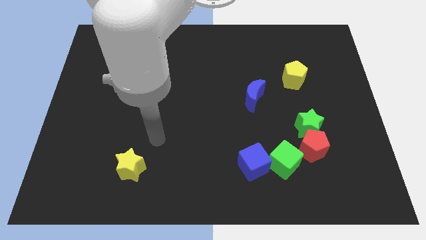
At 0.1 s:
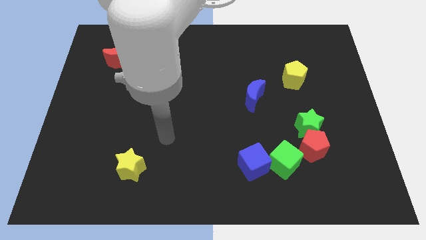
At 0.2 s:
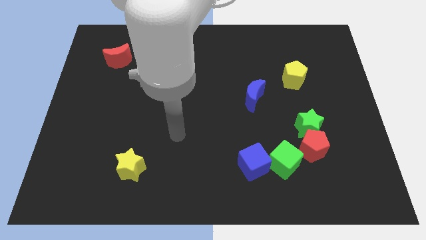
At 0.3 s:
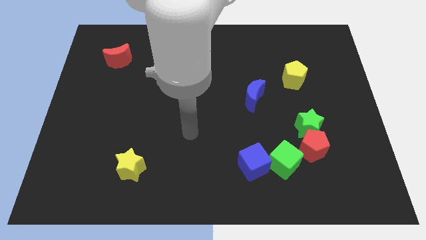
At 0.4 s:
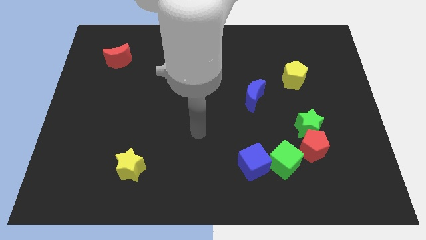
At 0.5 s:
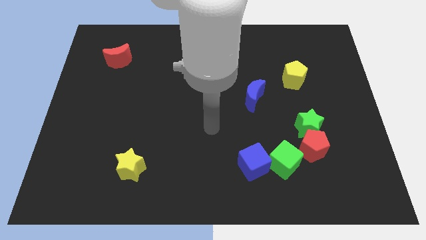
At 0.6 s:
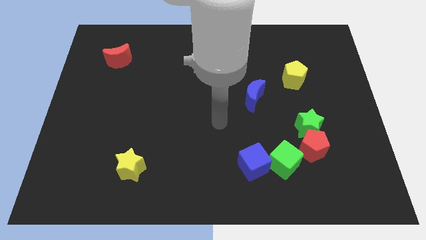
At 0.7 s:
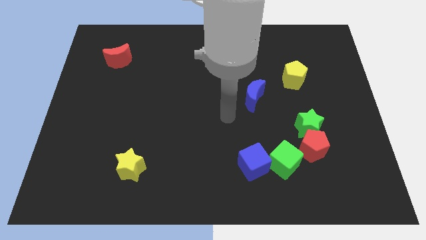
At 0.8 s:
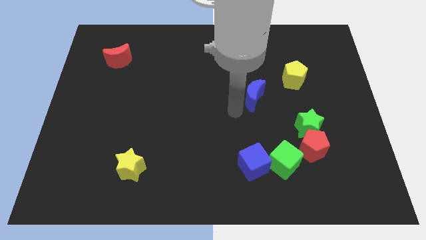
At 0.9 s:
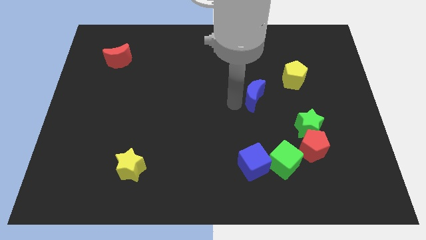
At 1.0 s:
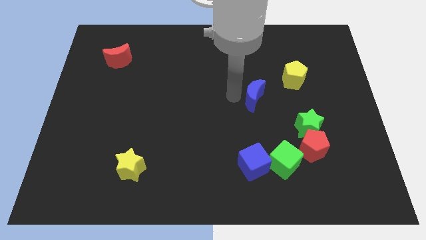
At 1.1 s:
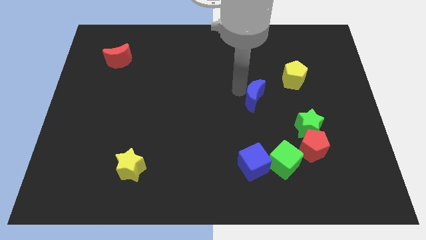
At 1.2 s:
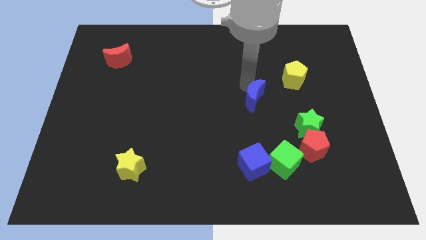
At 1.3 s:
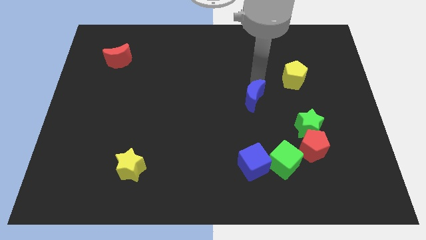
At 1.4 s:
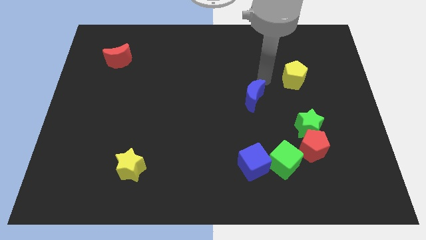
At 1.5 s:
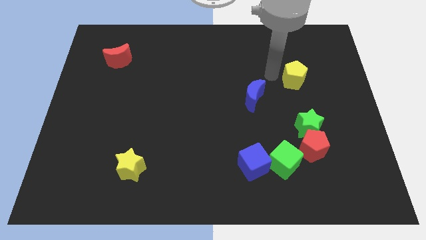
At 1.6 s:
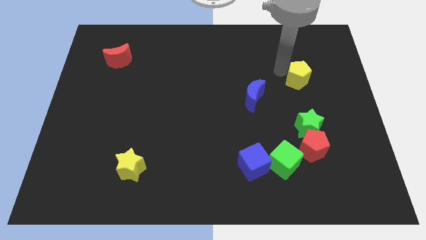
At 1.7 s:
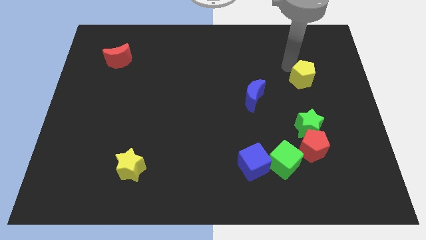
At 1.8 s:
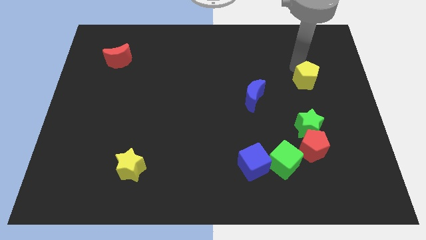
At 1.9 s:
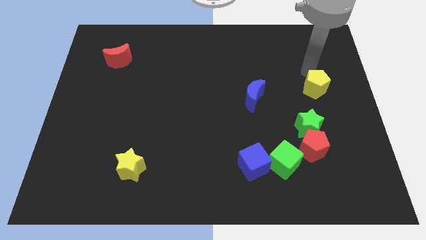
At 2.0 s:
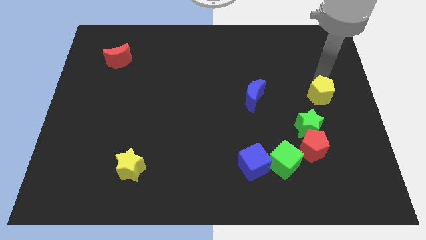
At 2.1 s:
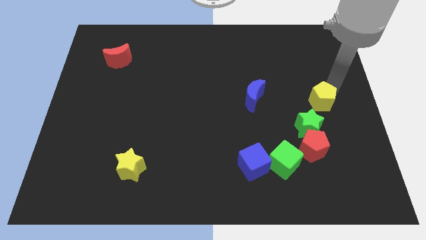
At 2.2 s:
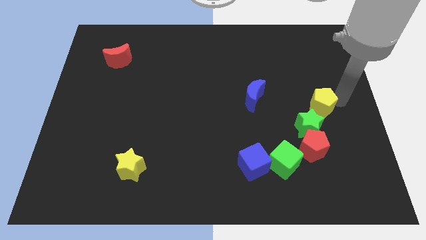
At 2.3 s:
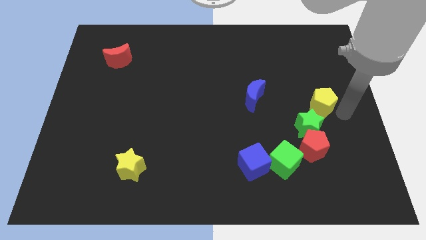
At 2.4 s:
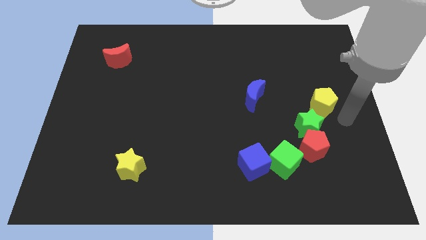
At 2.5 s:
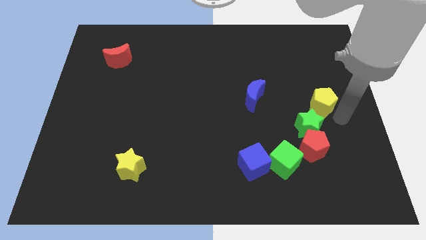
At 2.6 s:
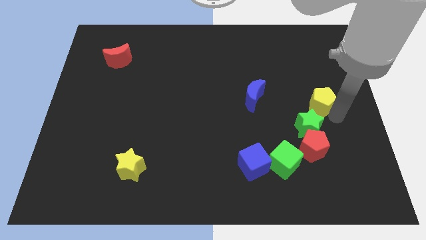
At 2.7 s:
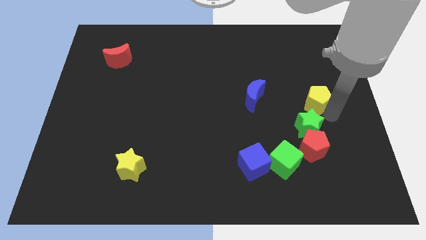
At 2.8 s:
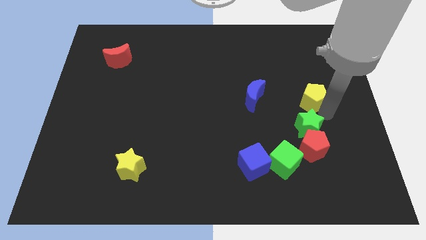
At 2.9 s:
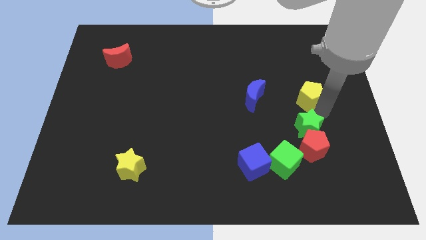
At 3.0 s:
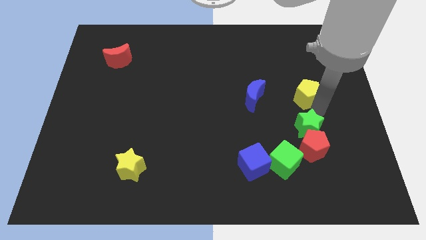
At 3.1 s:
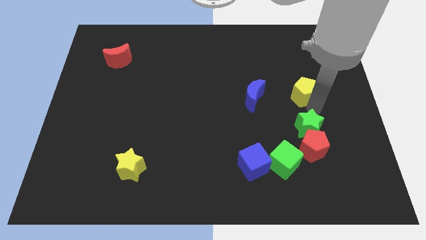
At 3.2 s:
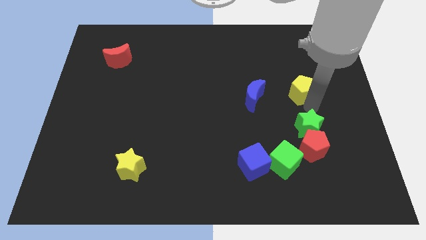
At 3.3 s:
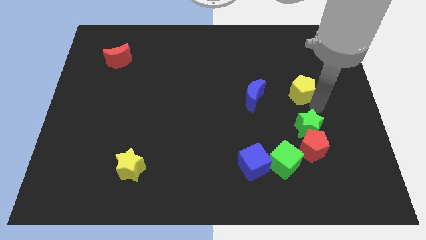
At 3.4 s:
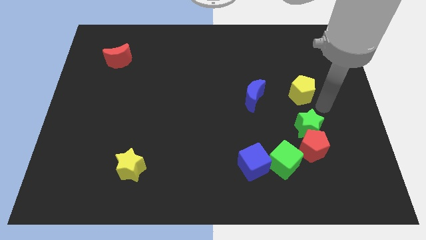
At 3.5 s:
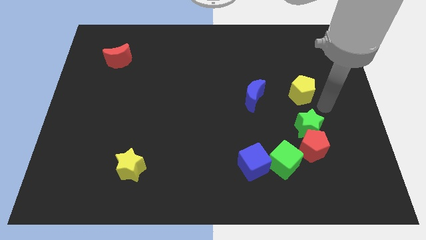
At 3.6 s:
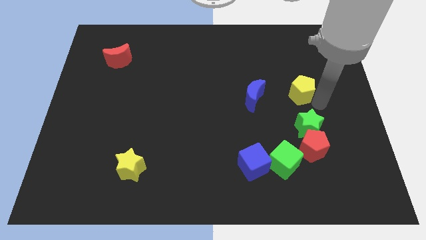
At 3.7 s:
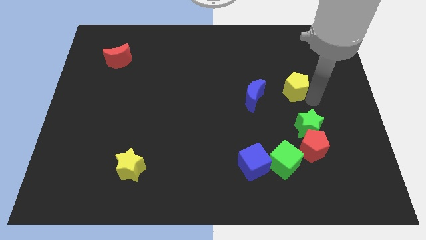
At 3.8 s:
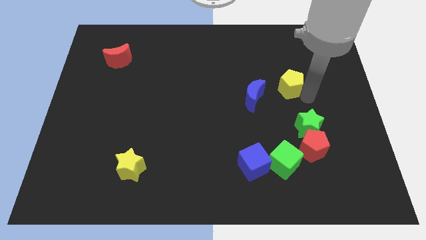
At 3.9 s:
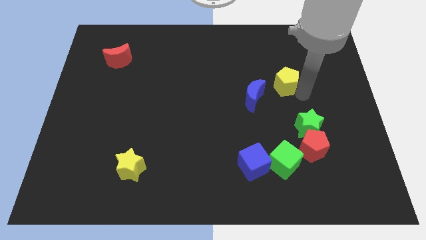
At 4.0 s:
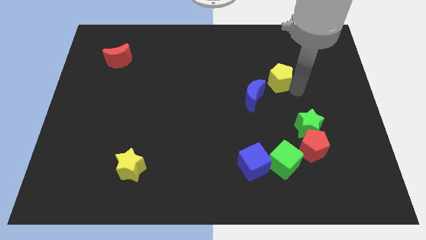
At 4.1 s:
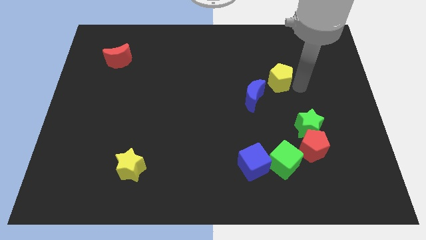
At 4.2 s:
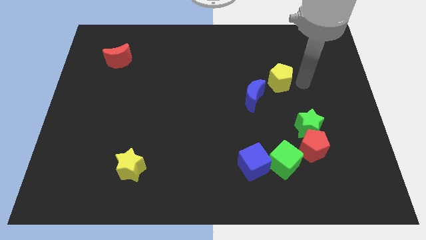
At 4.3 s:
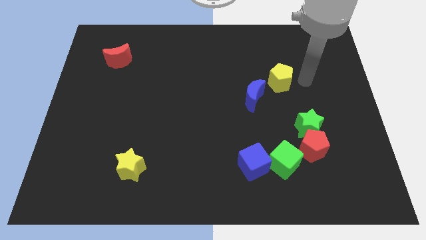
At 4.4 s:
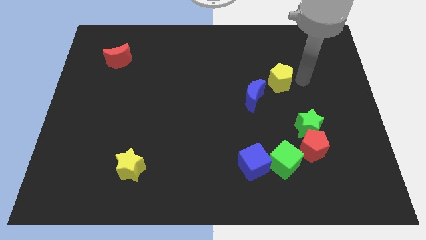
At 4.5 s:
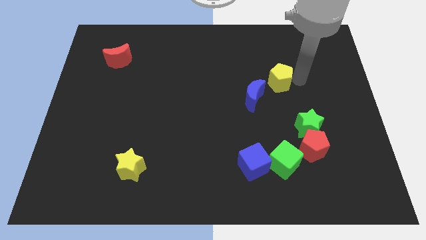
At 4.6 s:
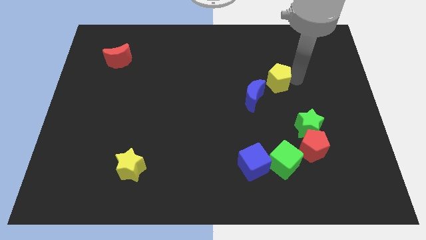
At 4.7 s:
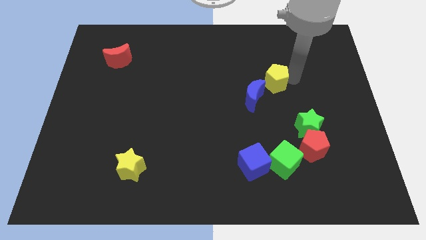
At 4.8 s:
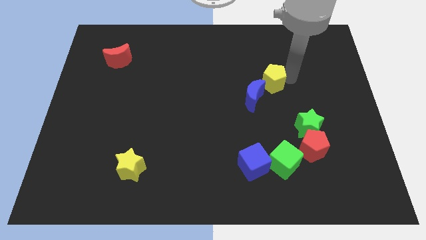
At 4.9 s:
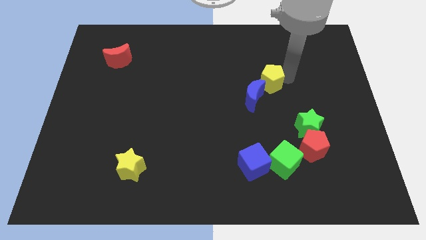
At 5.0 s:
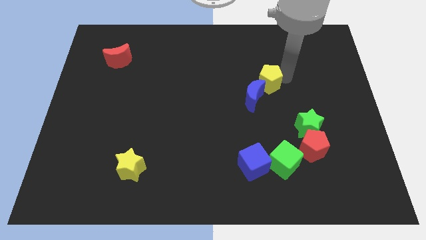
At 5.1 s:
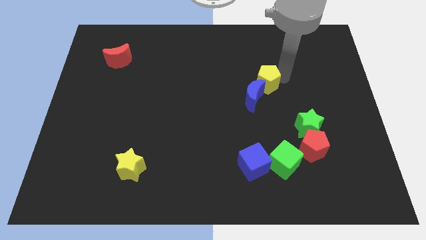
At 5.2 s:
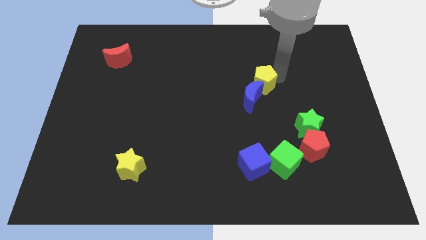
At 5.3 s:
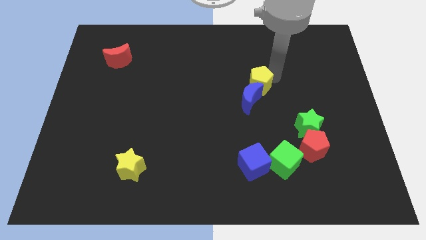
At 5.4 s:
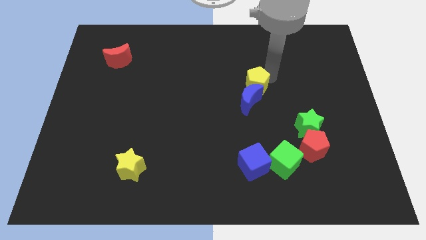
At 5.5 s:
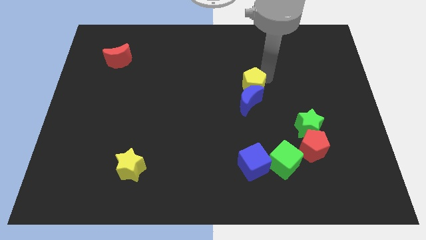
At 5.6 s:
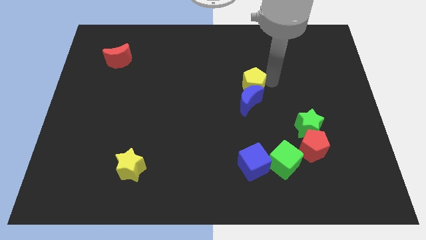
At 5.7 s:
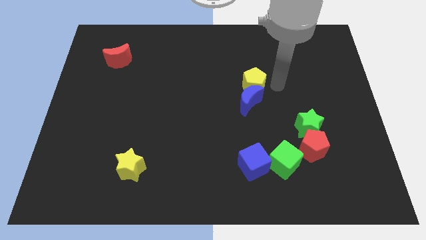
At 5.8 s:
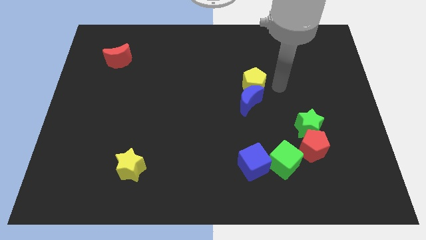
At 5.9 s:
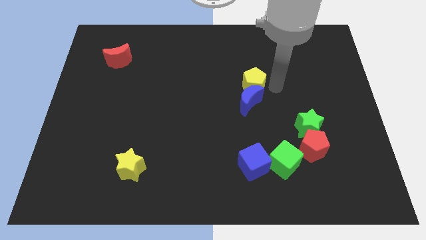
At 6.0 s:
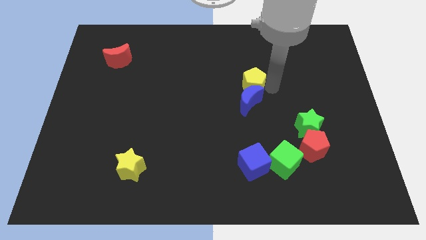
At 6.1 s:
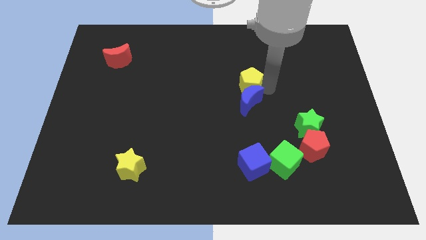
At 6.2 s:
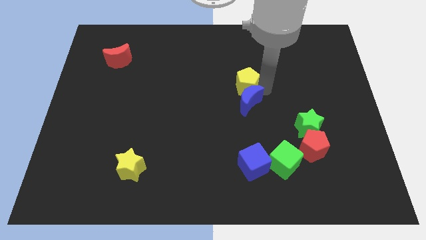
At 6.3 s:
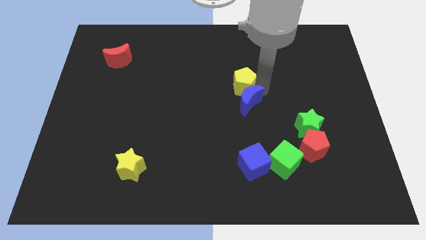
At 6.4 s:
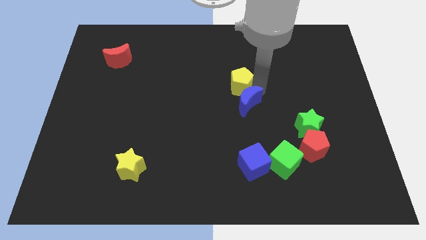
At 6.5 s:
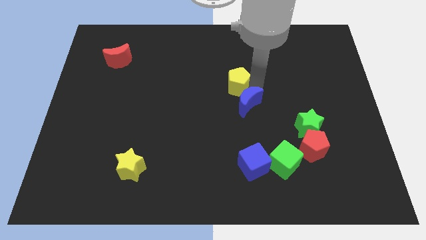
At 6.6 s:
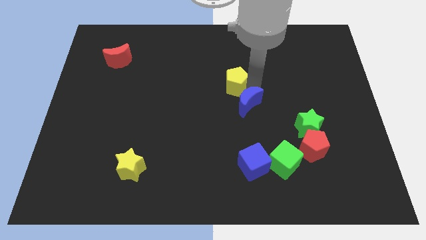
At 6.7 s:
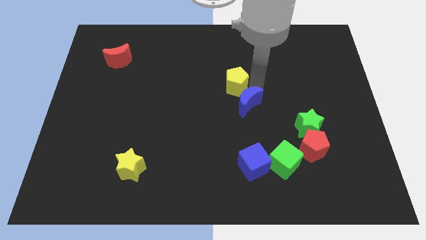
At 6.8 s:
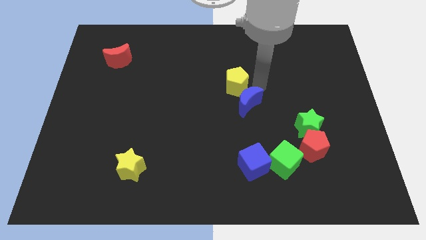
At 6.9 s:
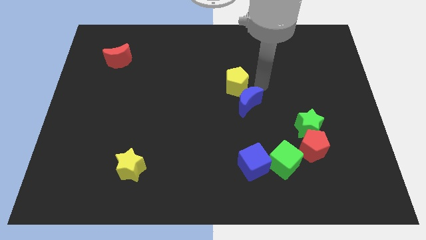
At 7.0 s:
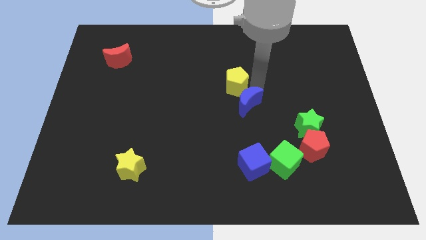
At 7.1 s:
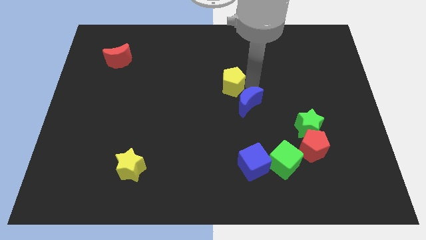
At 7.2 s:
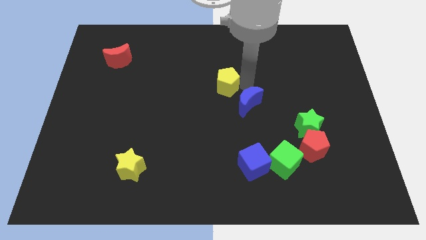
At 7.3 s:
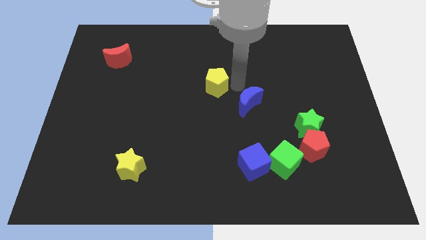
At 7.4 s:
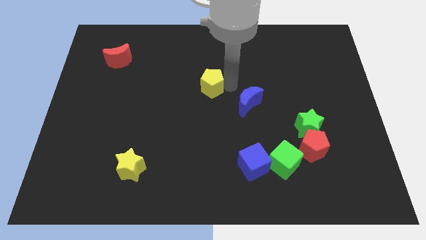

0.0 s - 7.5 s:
push the yellow pentagon to the left
